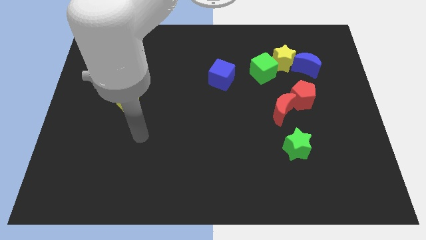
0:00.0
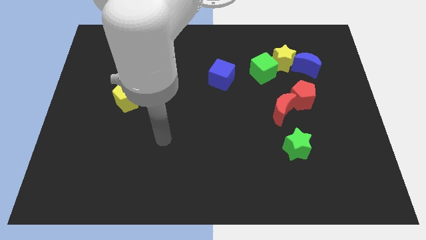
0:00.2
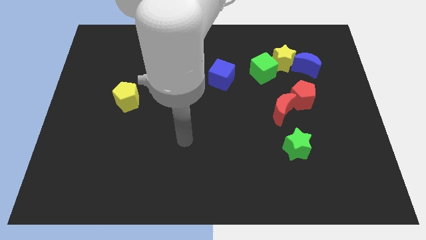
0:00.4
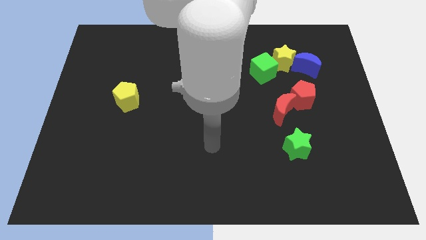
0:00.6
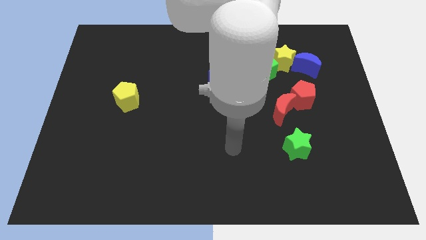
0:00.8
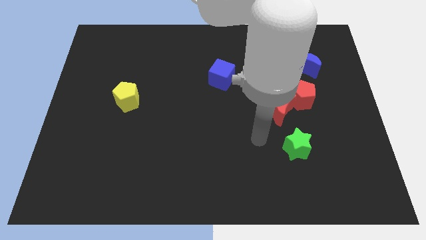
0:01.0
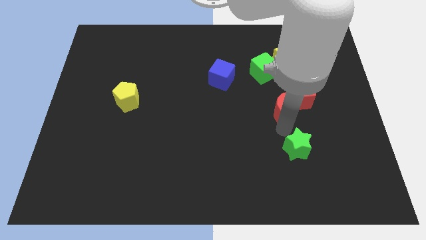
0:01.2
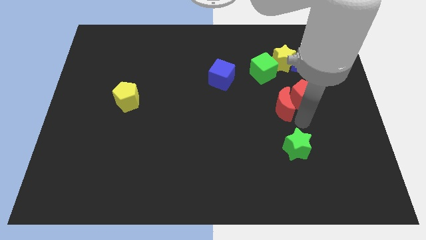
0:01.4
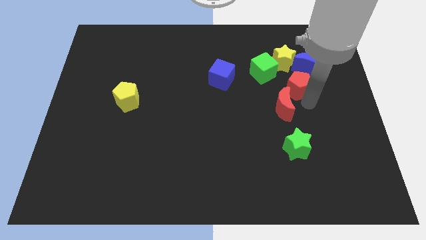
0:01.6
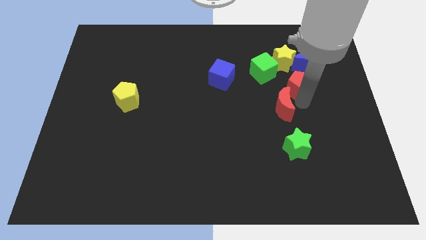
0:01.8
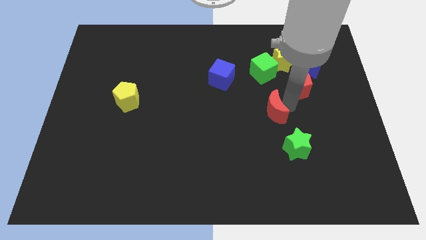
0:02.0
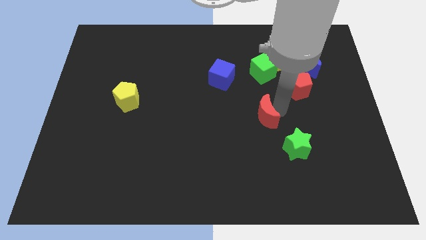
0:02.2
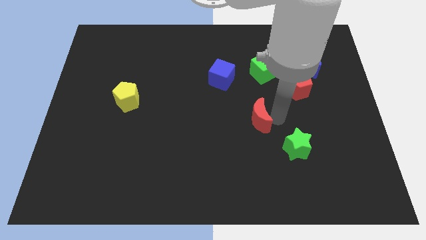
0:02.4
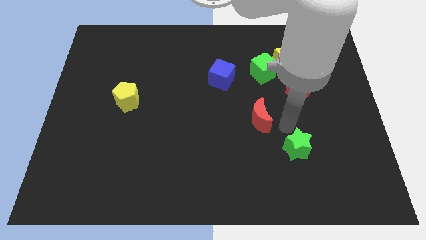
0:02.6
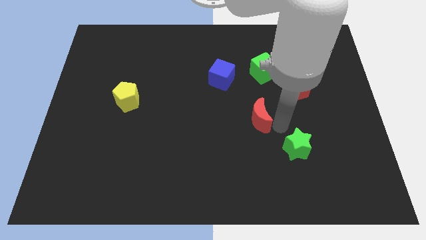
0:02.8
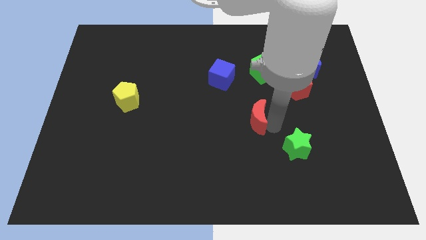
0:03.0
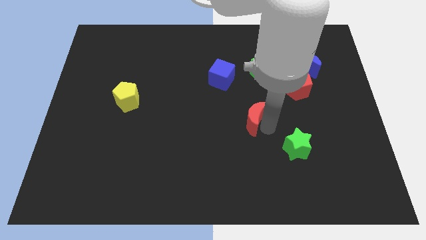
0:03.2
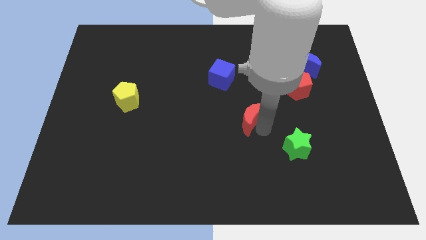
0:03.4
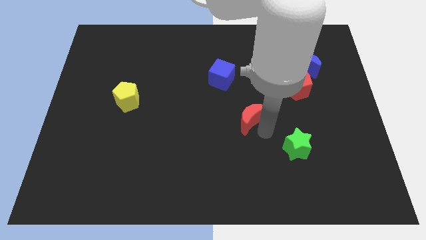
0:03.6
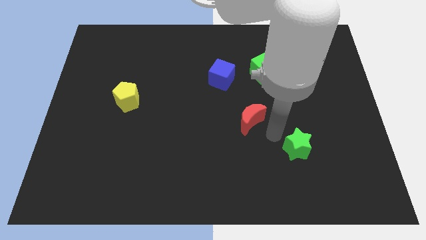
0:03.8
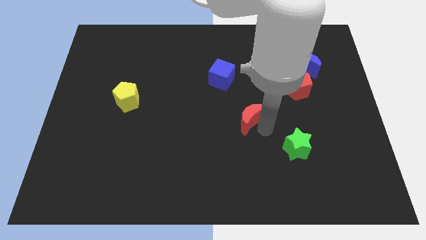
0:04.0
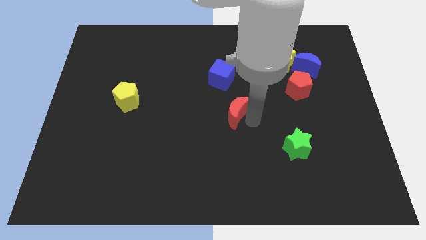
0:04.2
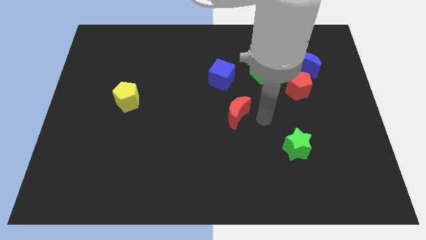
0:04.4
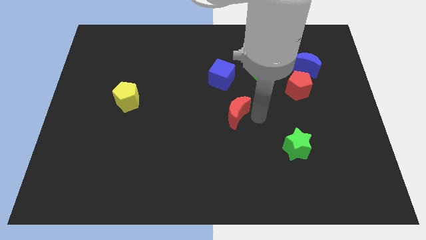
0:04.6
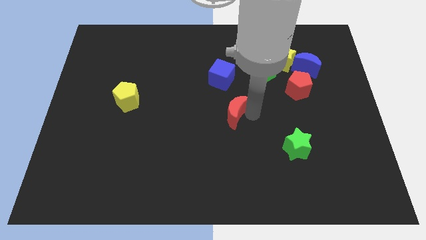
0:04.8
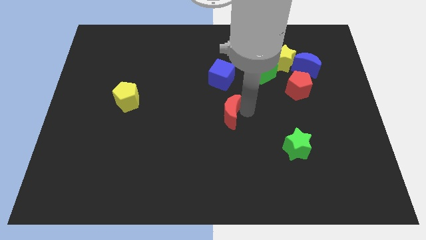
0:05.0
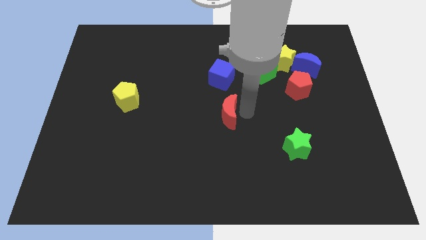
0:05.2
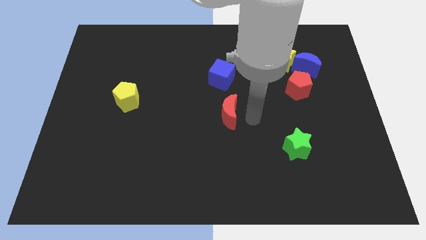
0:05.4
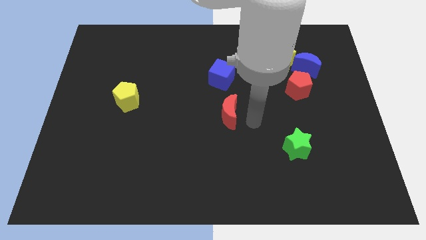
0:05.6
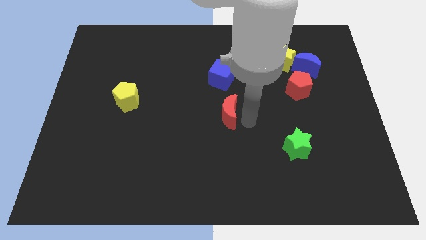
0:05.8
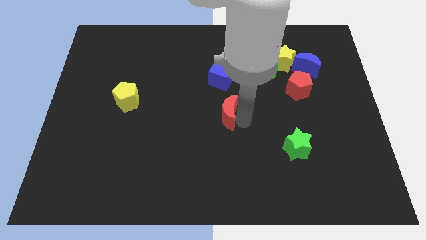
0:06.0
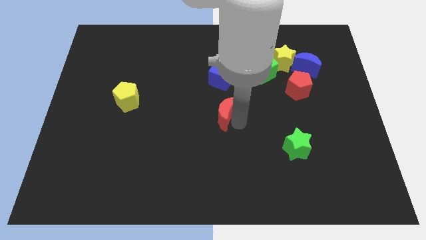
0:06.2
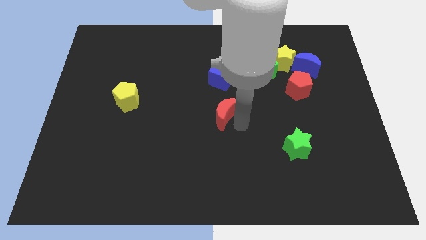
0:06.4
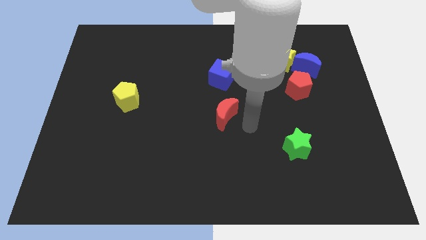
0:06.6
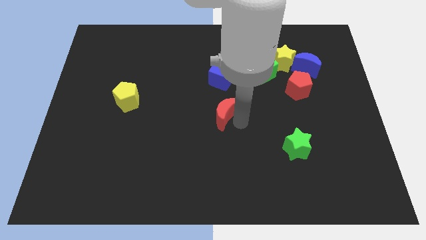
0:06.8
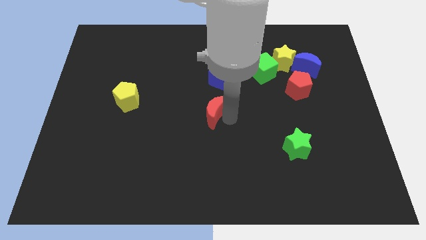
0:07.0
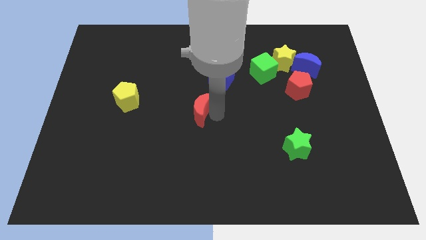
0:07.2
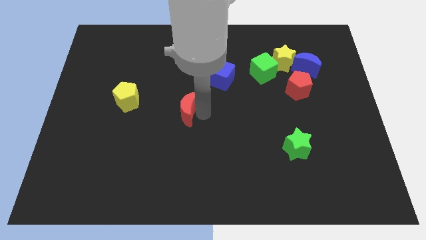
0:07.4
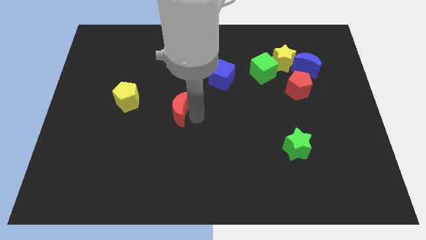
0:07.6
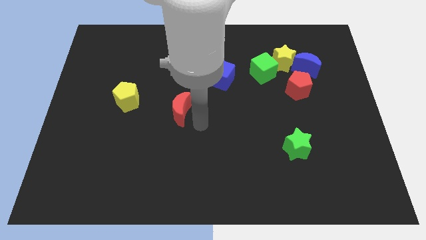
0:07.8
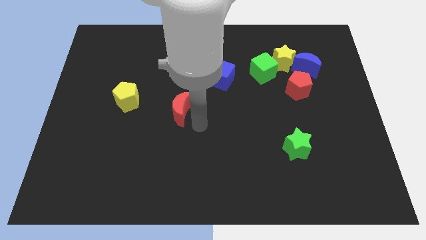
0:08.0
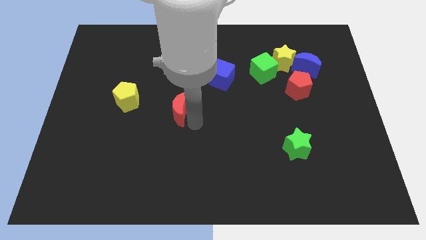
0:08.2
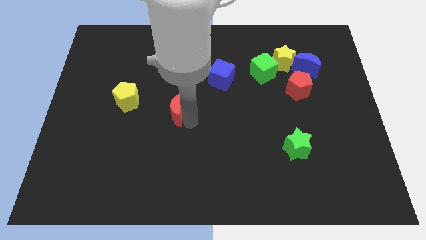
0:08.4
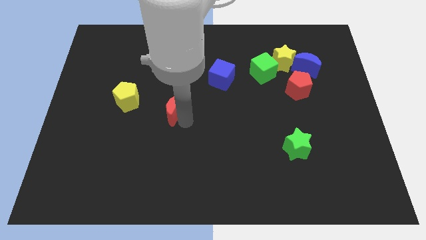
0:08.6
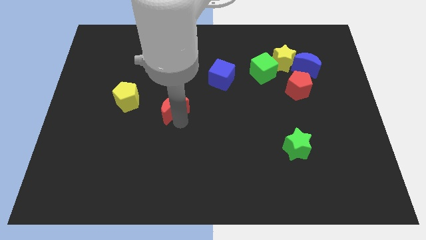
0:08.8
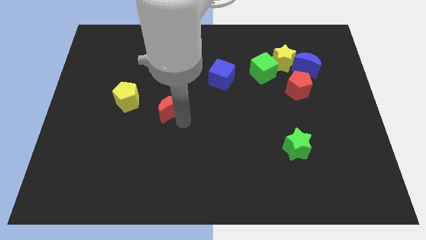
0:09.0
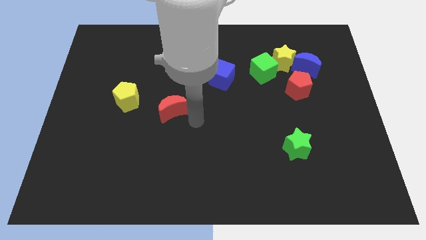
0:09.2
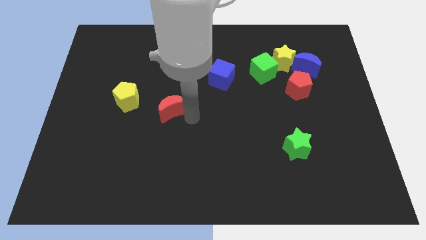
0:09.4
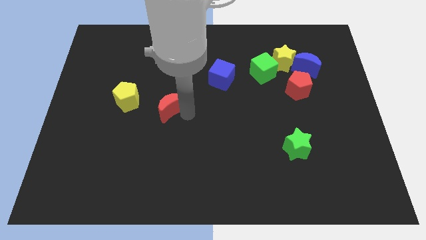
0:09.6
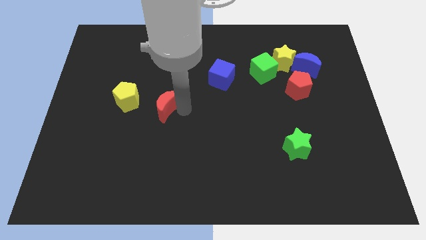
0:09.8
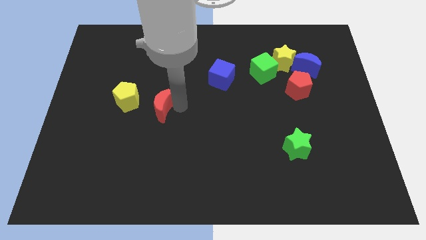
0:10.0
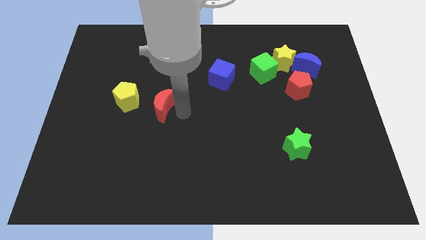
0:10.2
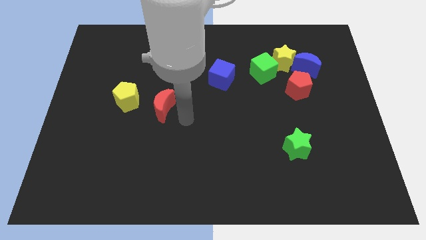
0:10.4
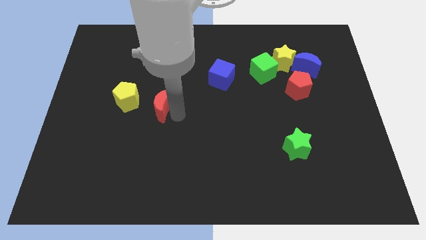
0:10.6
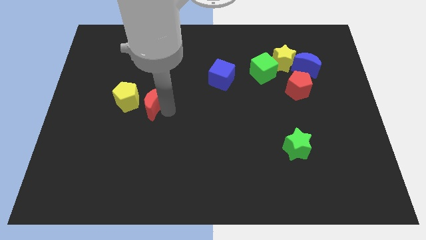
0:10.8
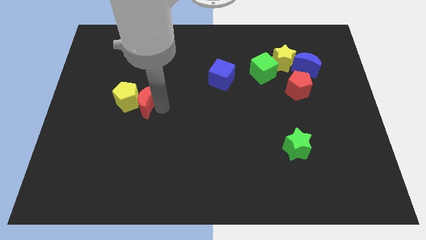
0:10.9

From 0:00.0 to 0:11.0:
push the red moon towards the yellow pentagon
